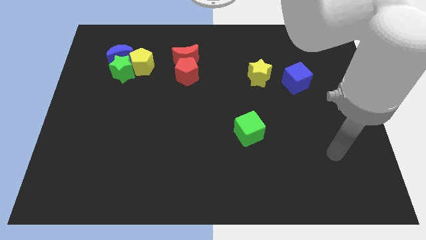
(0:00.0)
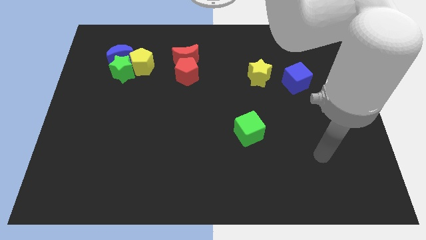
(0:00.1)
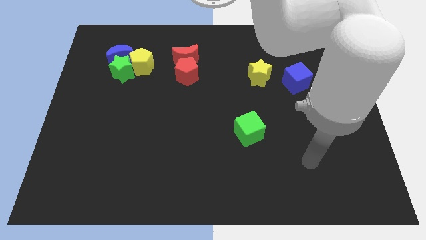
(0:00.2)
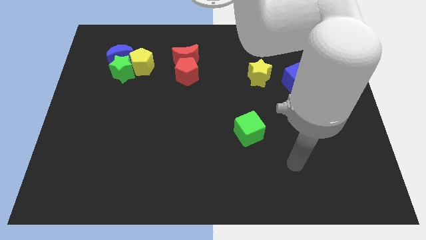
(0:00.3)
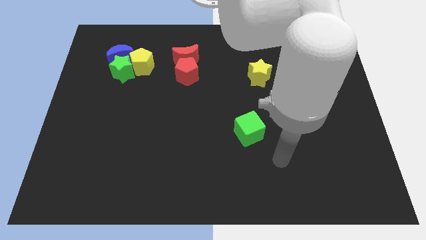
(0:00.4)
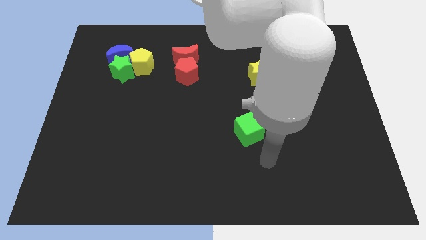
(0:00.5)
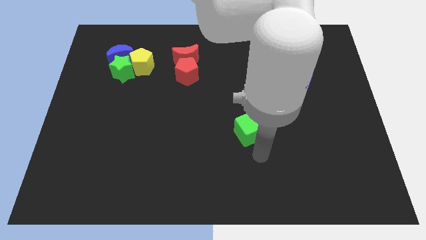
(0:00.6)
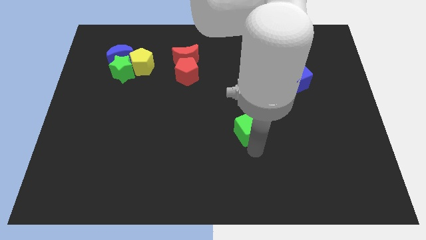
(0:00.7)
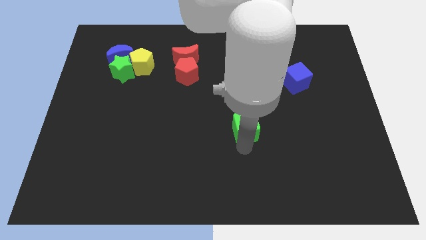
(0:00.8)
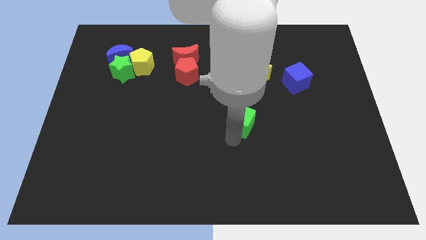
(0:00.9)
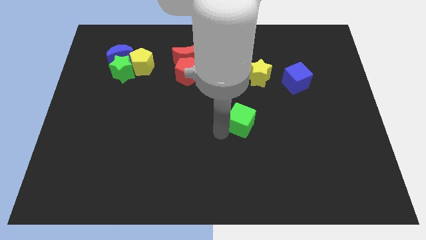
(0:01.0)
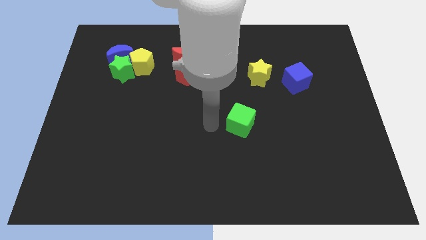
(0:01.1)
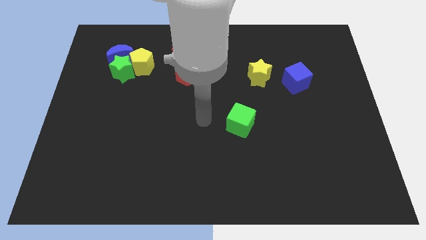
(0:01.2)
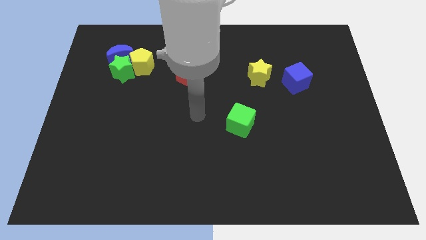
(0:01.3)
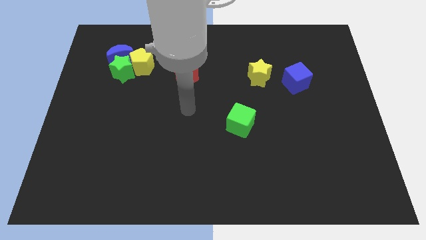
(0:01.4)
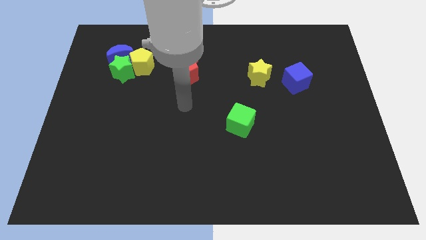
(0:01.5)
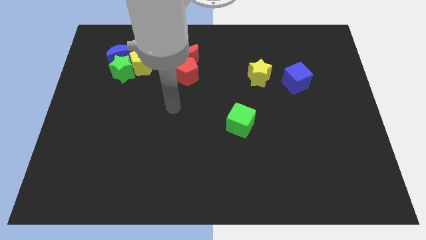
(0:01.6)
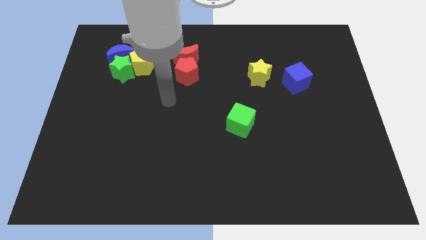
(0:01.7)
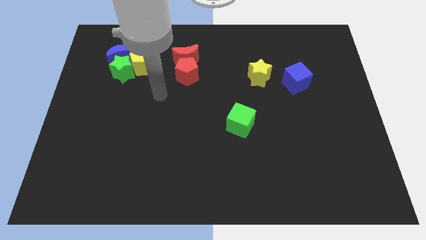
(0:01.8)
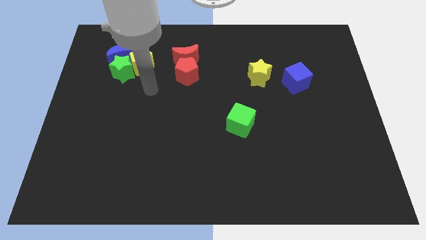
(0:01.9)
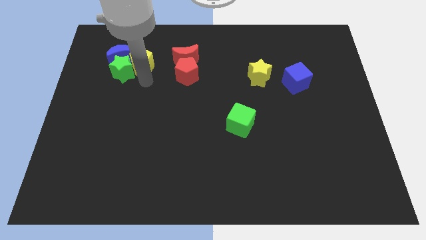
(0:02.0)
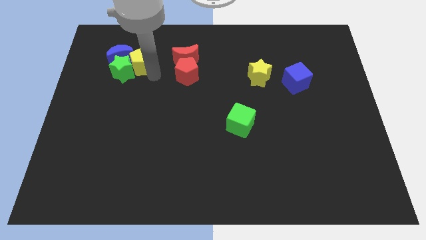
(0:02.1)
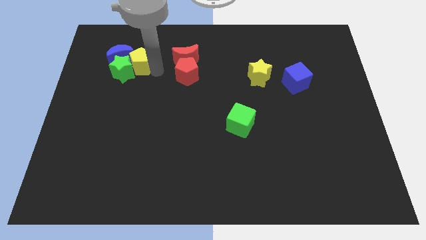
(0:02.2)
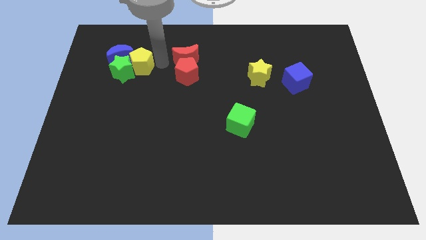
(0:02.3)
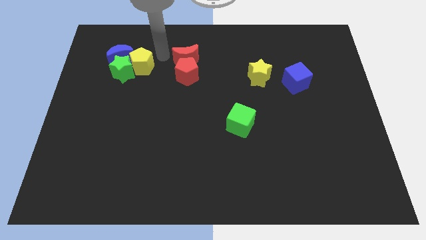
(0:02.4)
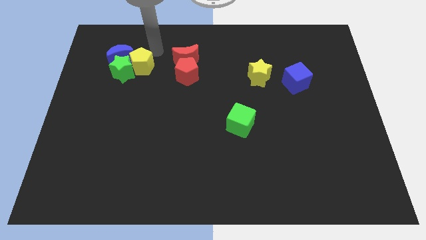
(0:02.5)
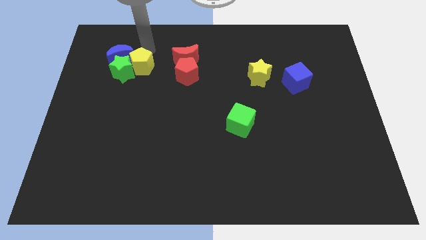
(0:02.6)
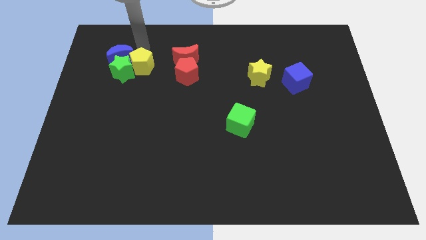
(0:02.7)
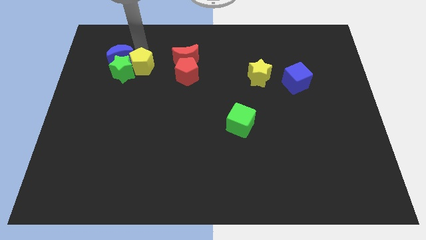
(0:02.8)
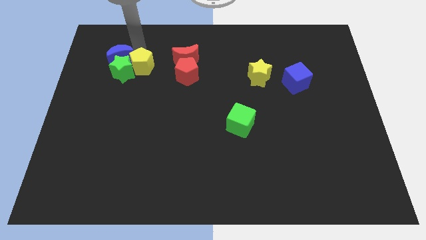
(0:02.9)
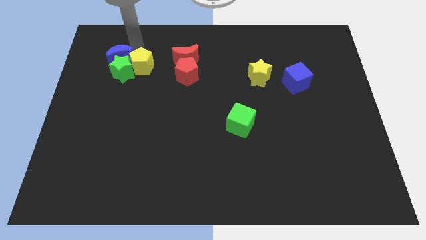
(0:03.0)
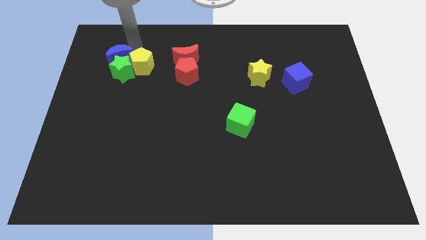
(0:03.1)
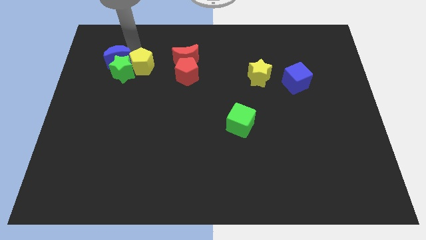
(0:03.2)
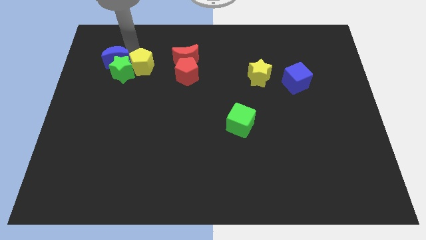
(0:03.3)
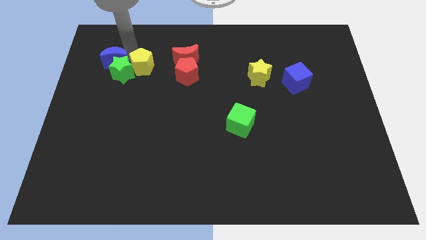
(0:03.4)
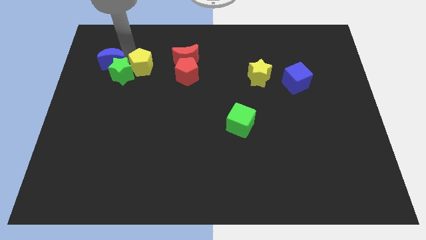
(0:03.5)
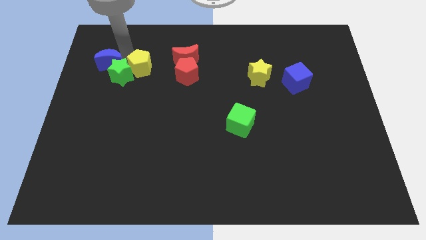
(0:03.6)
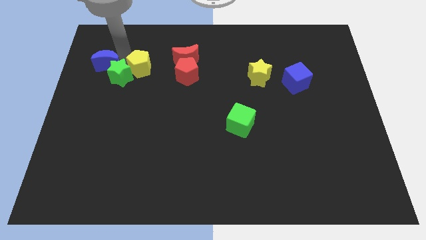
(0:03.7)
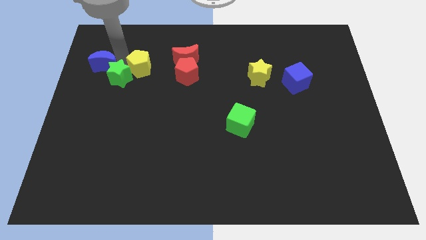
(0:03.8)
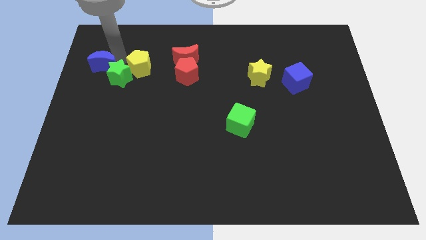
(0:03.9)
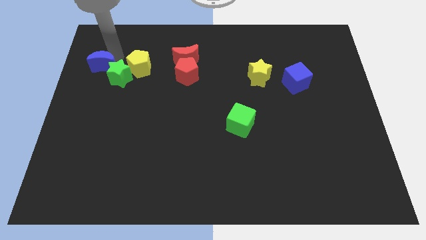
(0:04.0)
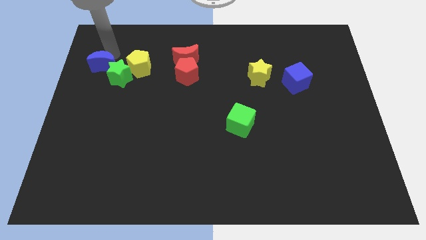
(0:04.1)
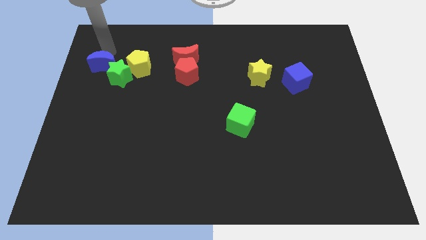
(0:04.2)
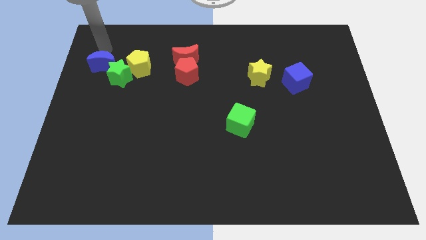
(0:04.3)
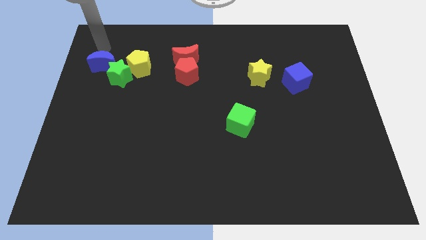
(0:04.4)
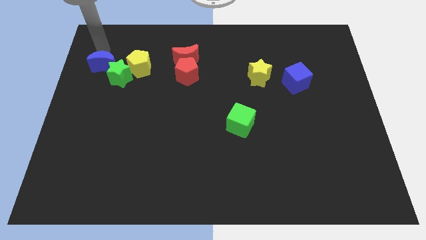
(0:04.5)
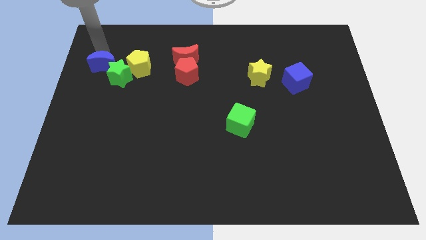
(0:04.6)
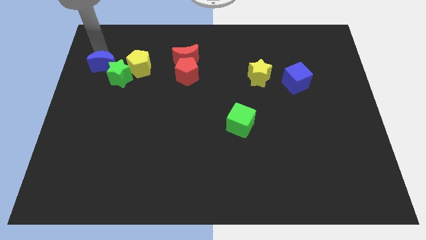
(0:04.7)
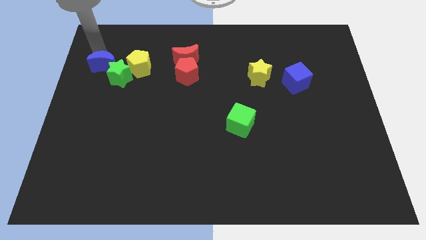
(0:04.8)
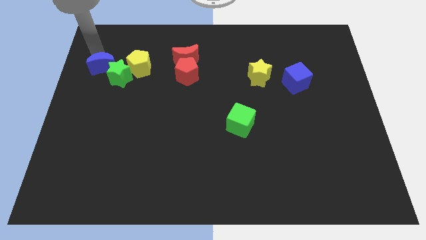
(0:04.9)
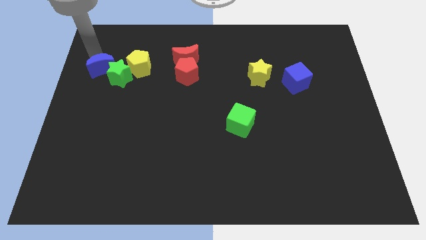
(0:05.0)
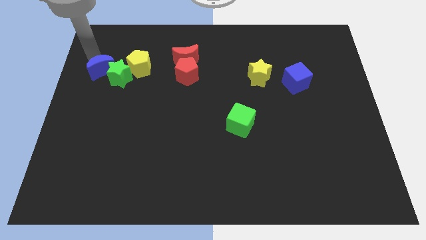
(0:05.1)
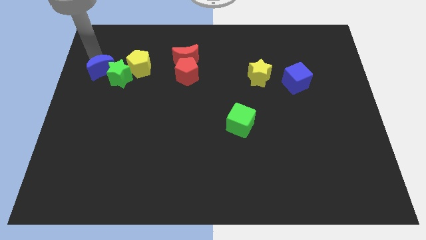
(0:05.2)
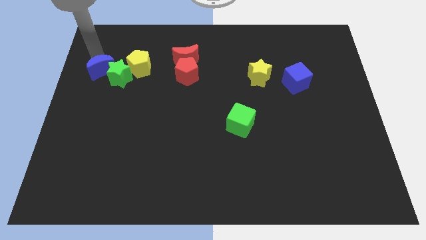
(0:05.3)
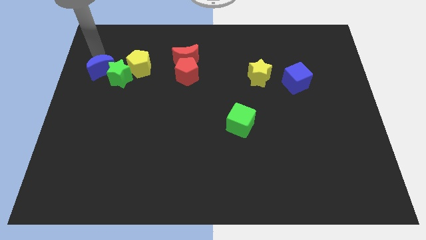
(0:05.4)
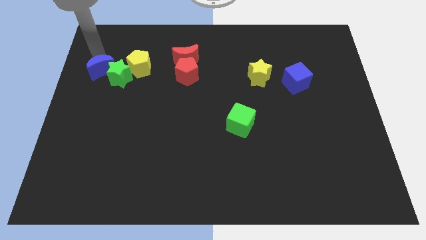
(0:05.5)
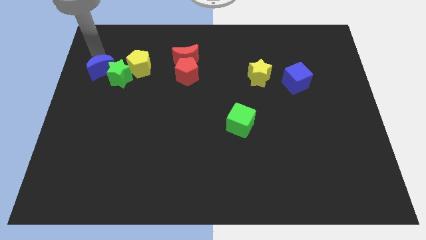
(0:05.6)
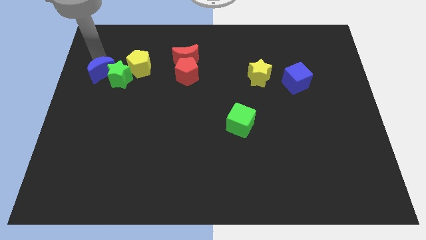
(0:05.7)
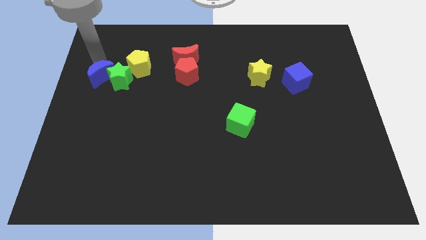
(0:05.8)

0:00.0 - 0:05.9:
push the blue moon to the bottom left side of the yellow pentagon

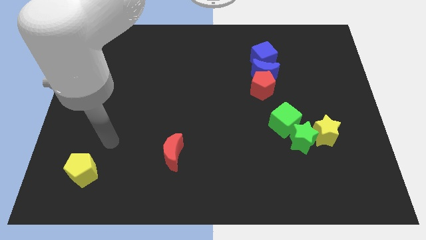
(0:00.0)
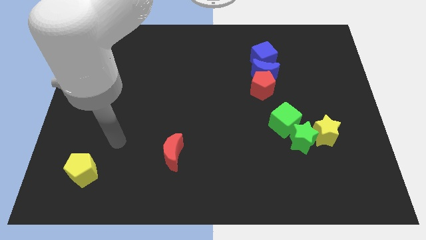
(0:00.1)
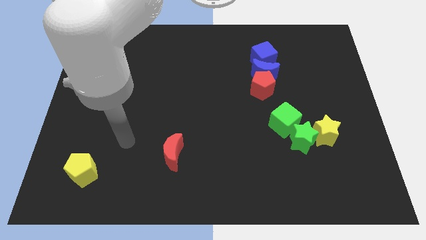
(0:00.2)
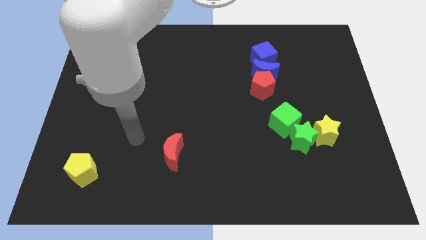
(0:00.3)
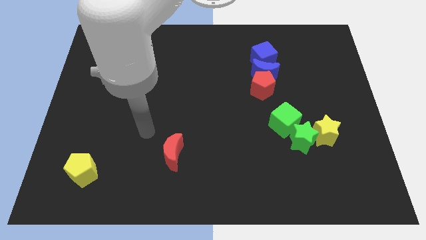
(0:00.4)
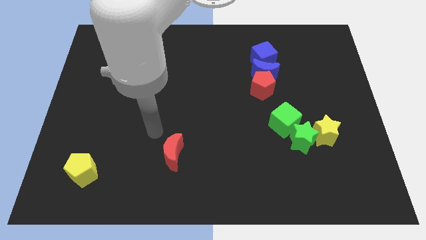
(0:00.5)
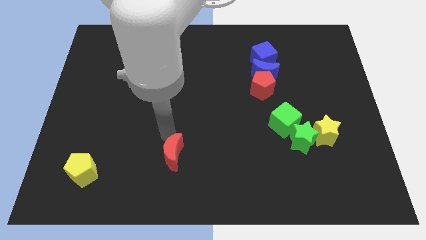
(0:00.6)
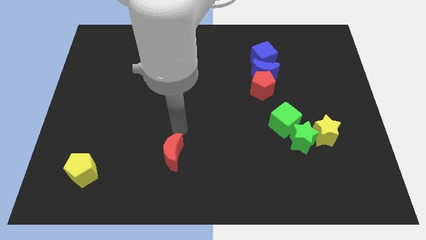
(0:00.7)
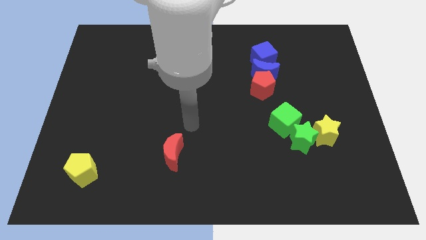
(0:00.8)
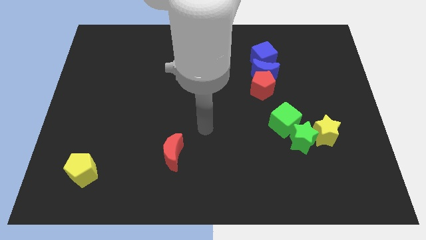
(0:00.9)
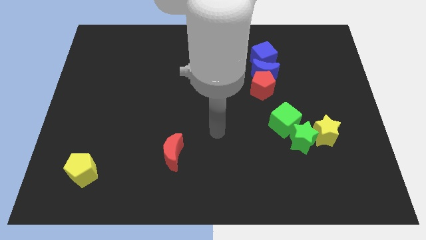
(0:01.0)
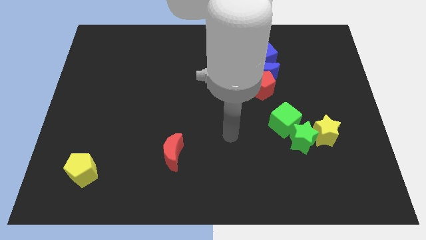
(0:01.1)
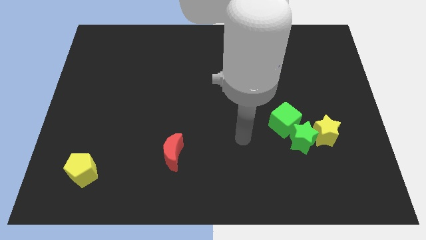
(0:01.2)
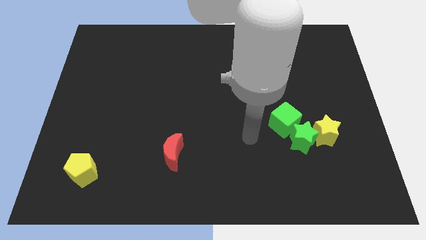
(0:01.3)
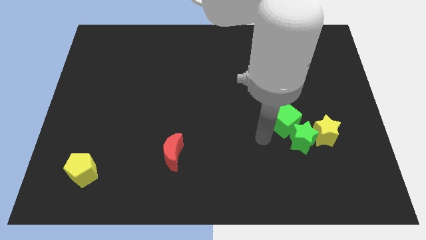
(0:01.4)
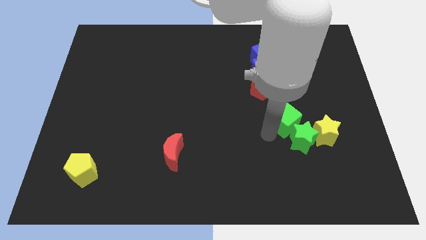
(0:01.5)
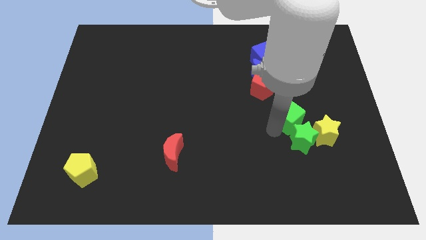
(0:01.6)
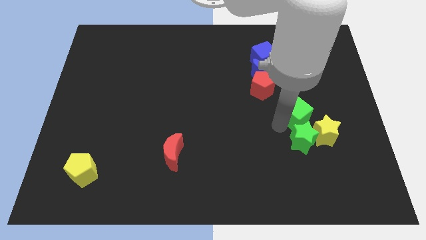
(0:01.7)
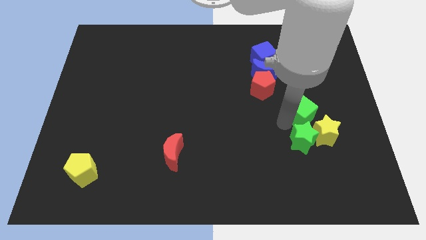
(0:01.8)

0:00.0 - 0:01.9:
push the green cube to the top of the yellow star
